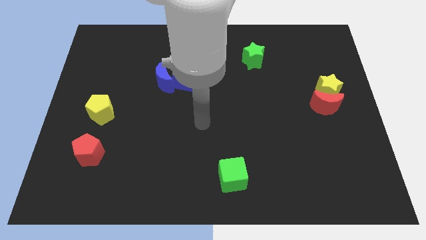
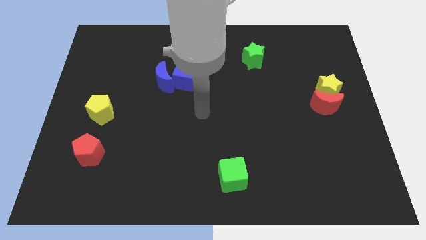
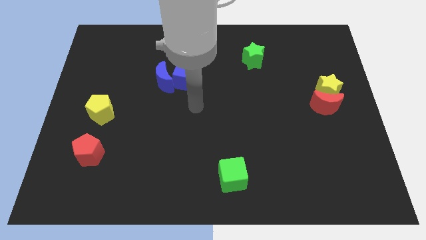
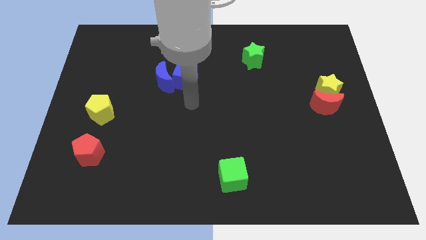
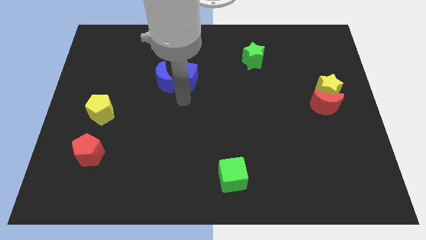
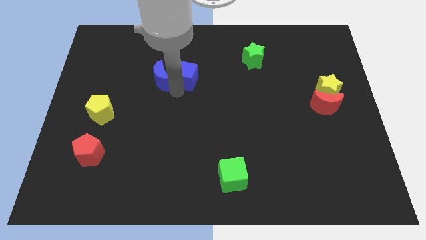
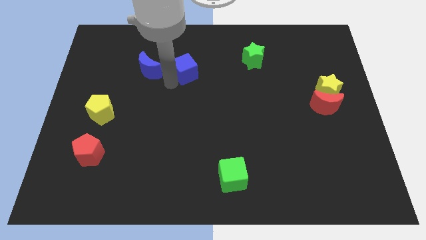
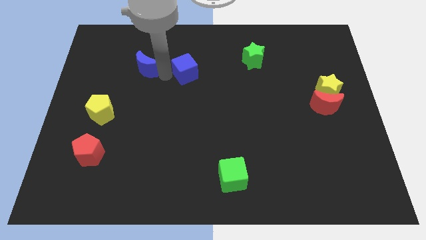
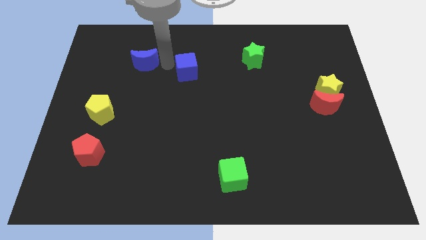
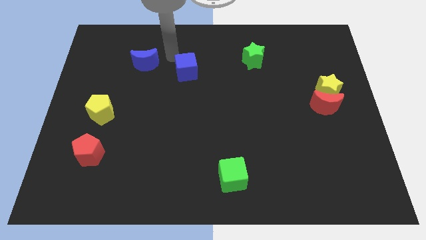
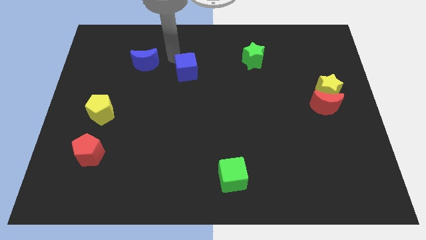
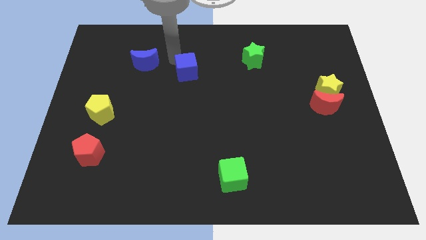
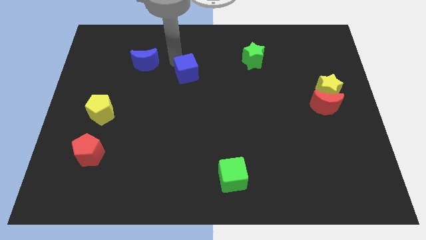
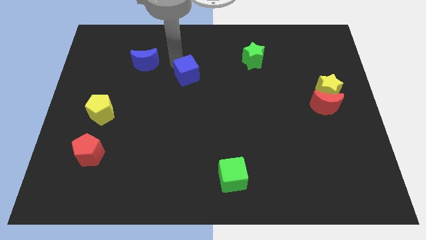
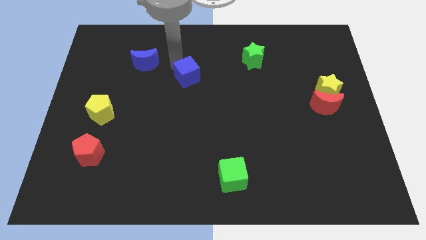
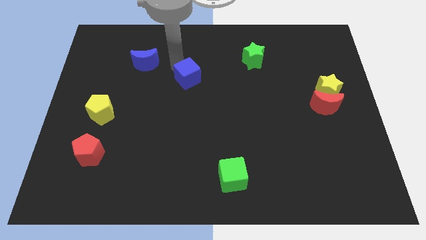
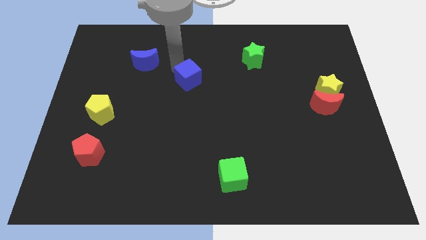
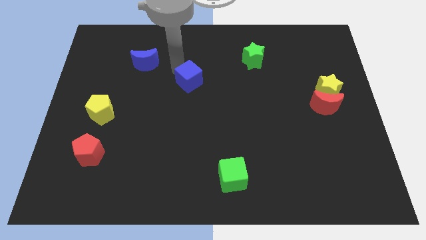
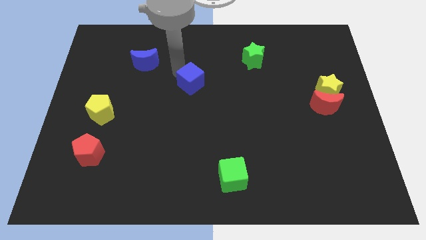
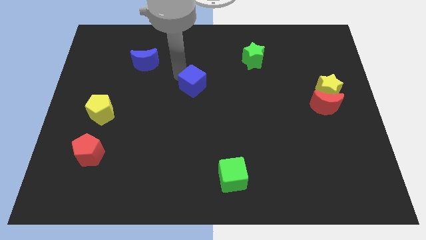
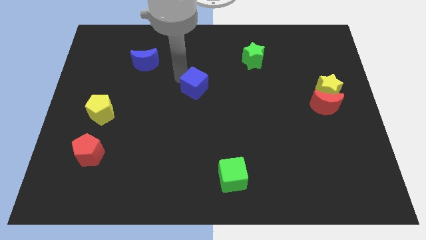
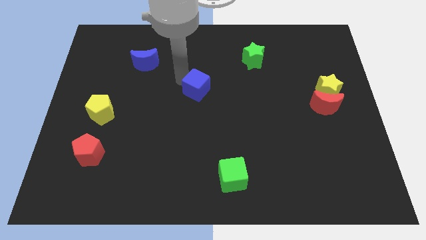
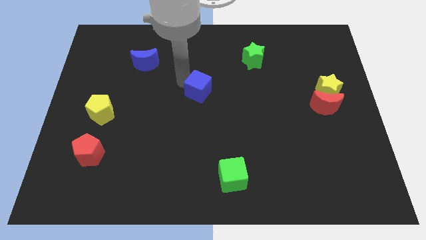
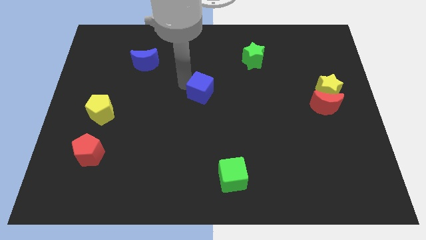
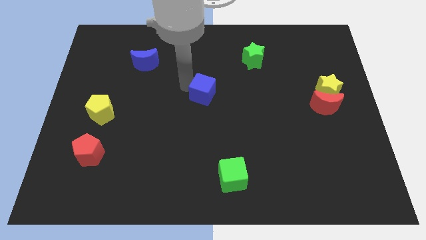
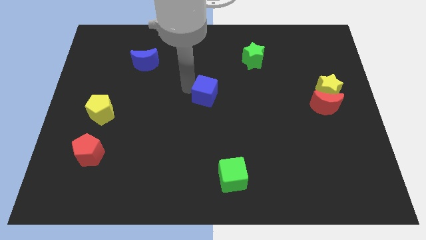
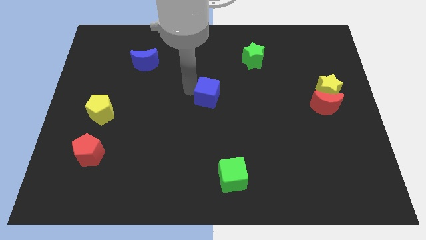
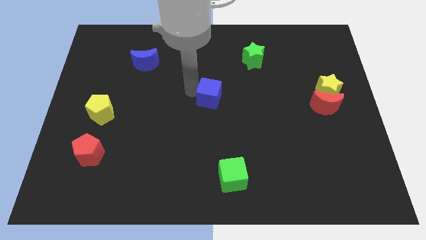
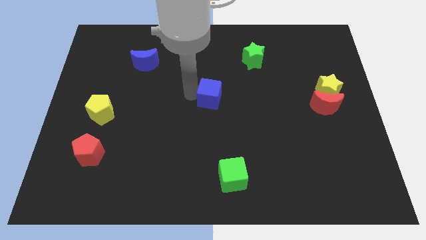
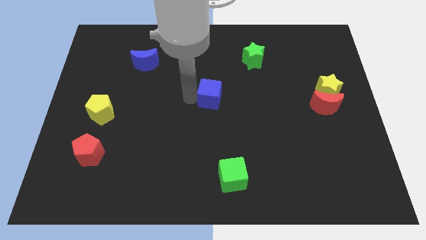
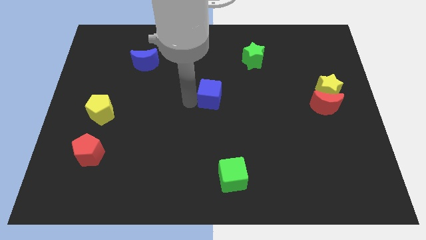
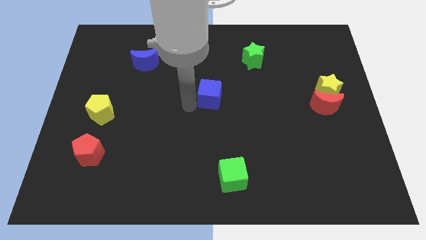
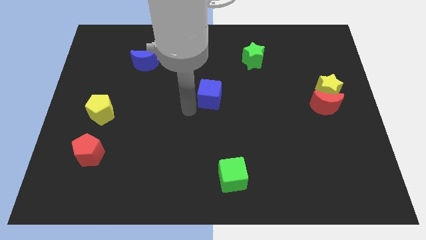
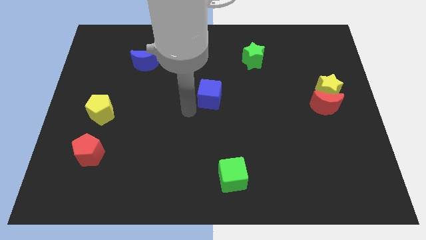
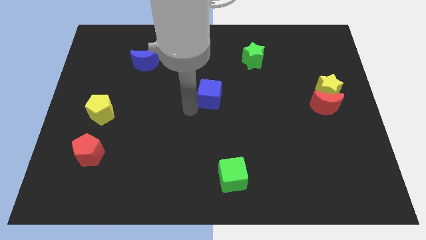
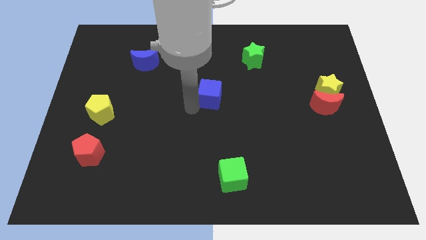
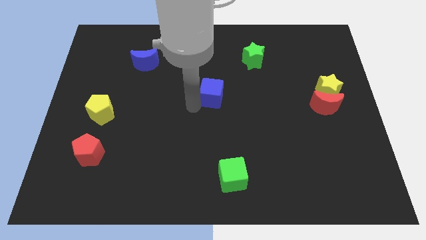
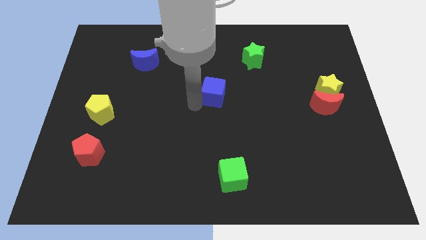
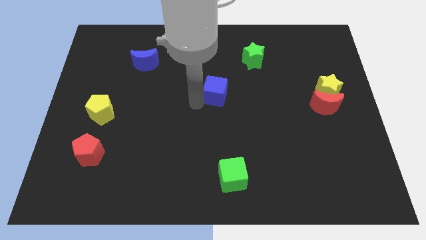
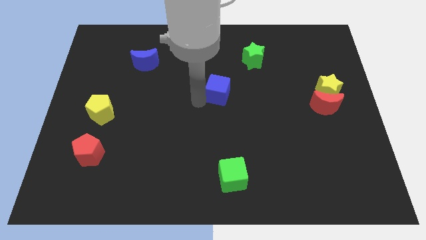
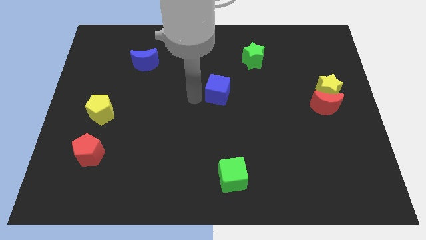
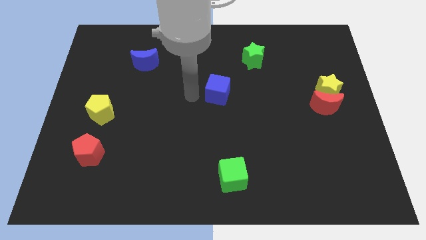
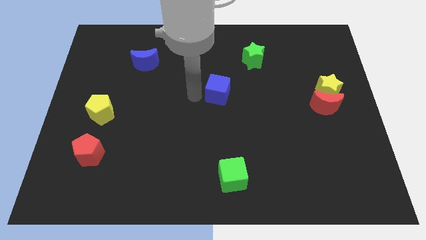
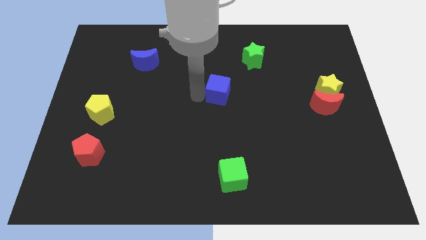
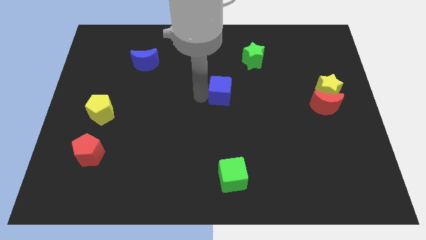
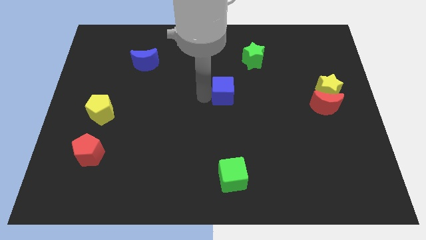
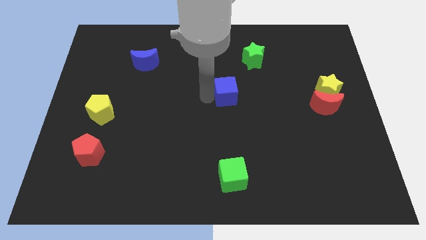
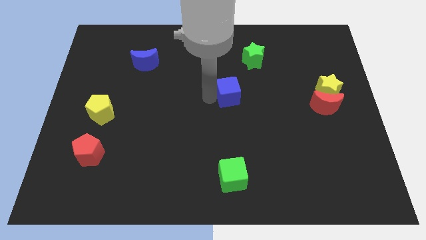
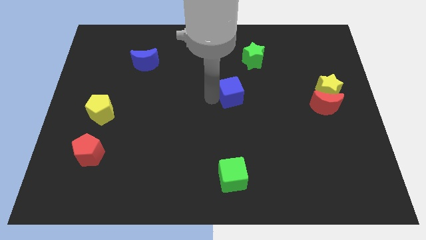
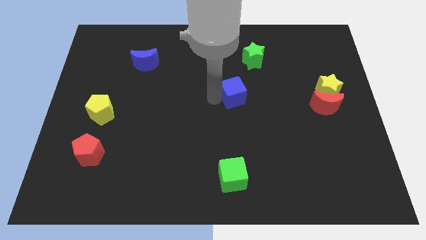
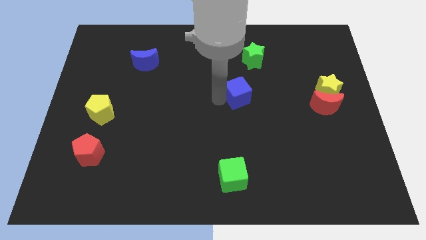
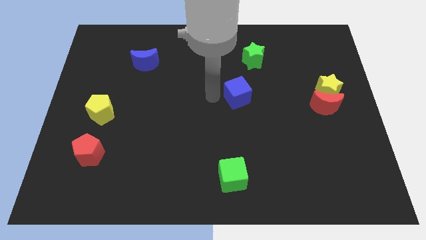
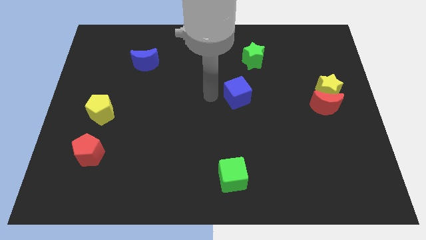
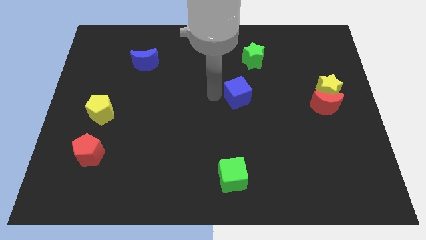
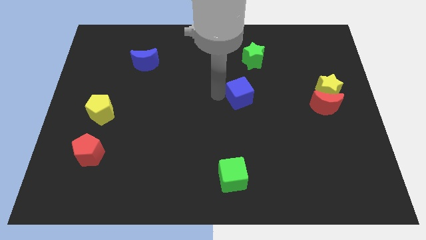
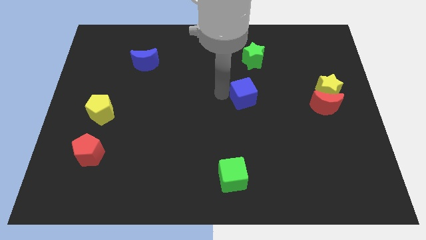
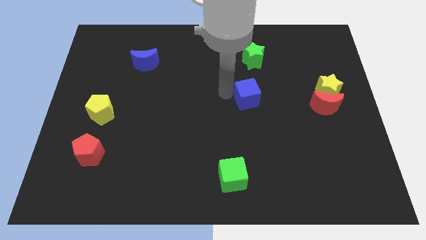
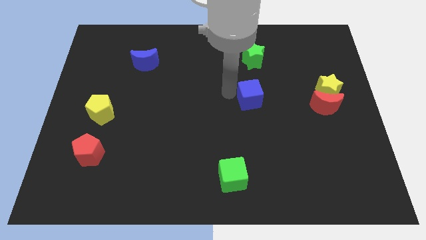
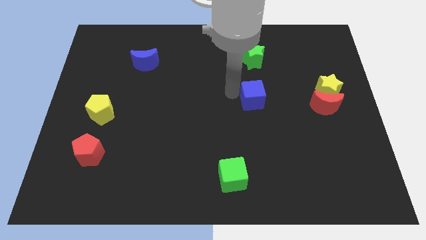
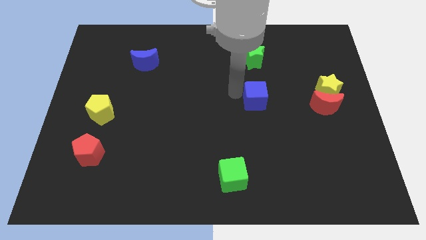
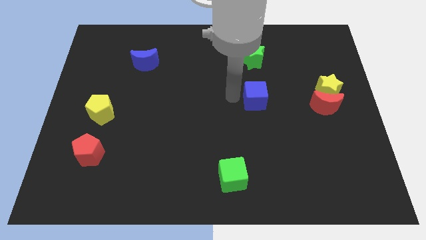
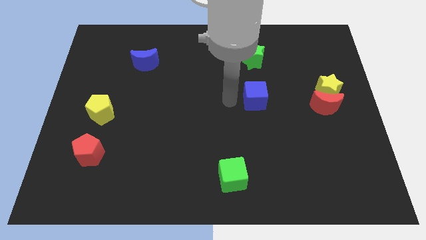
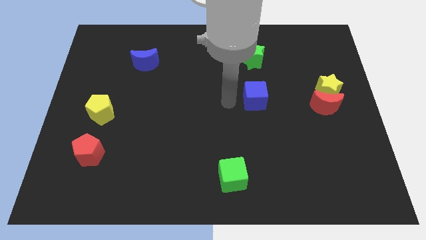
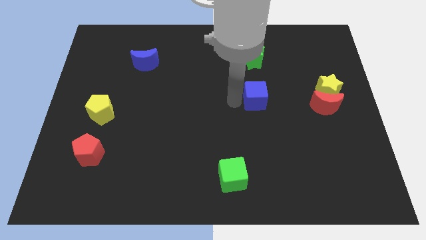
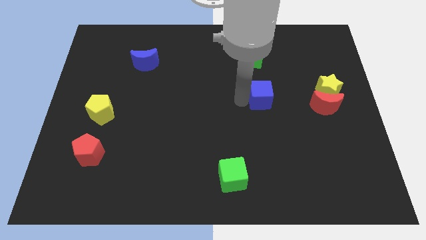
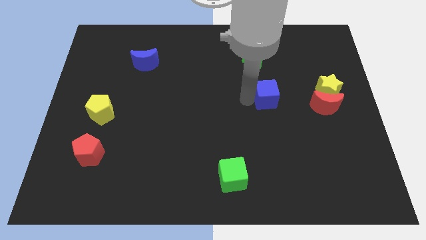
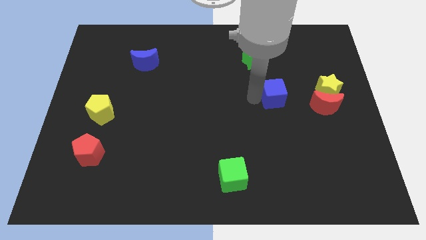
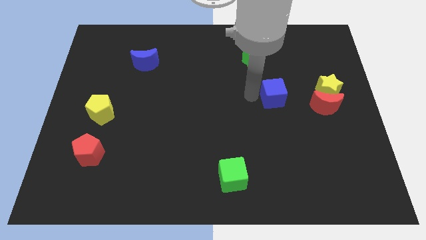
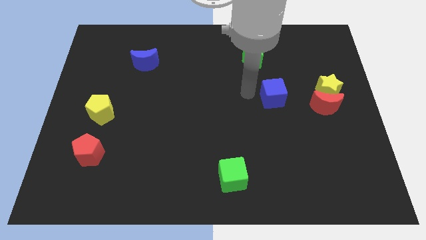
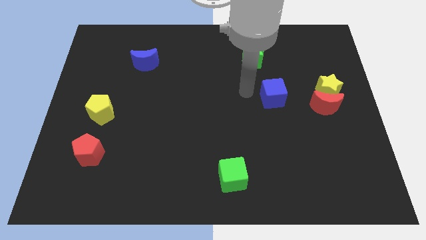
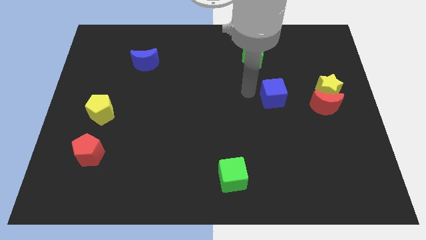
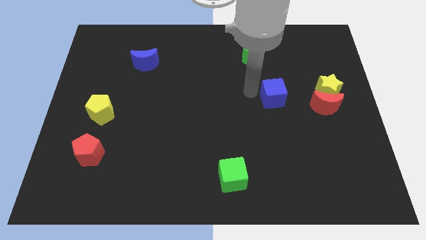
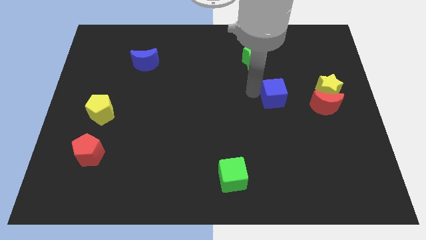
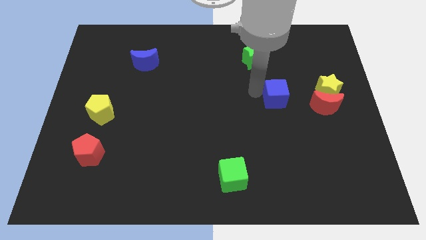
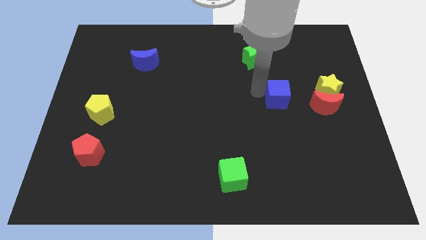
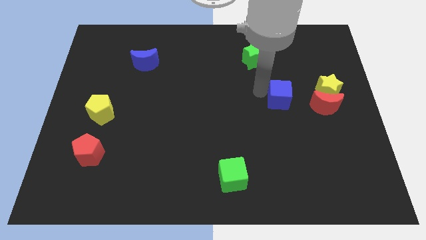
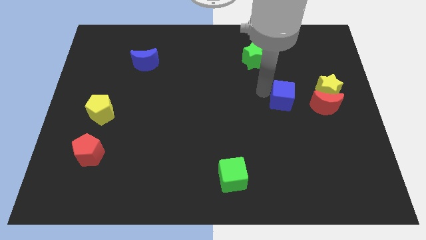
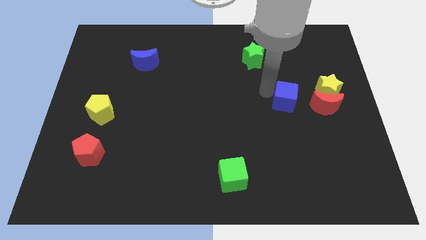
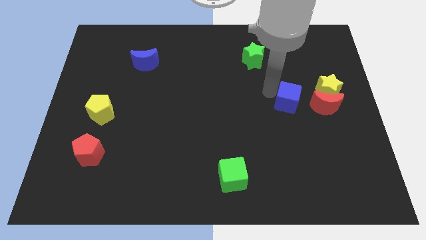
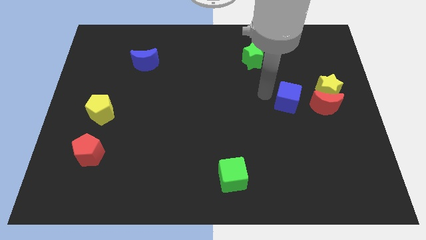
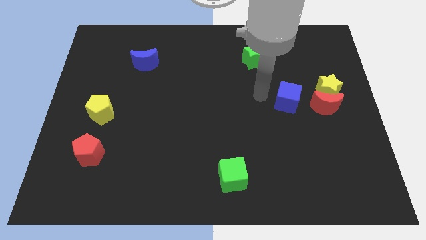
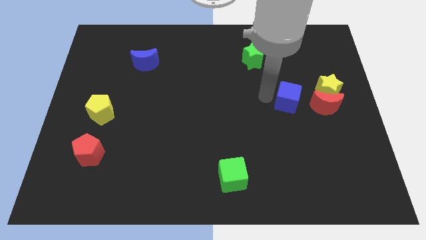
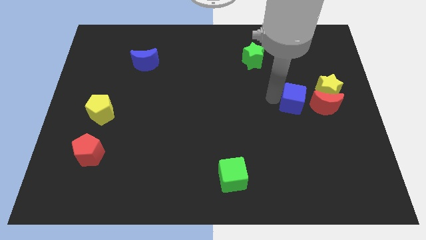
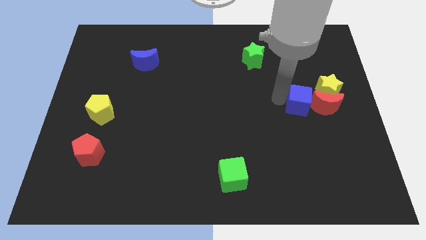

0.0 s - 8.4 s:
push the blue cube to the red moon
